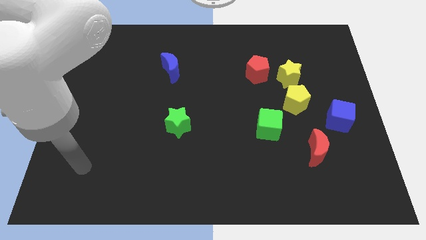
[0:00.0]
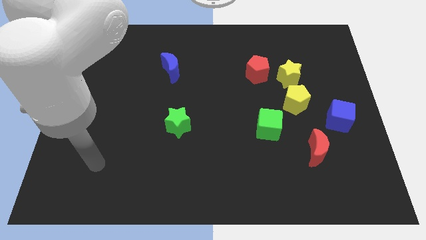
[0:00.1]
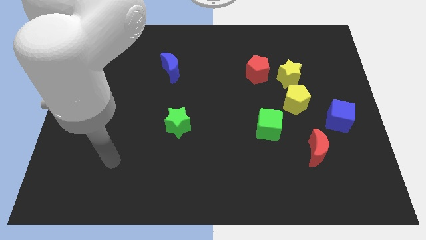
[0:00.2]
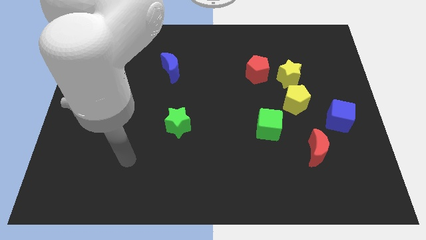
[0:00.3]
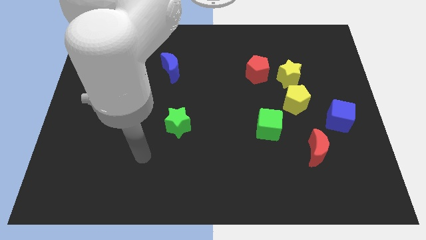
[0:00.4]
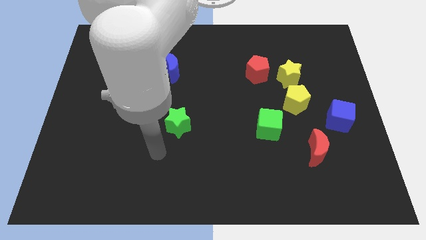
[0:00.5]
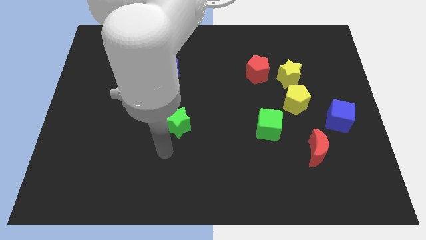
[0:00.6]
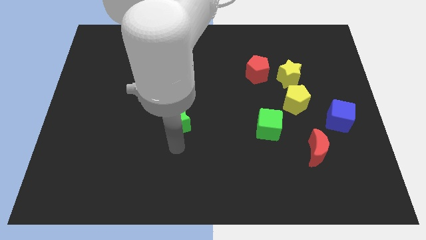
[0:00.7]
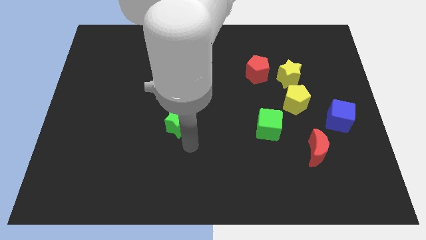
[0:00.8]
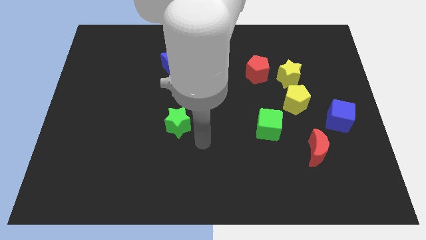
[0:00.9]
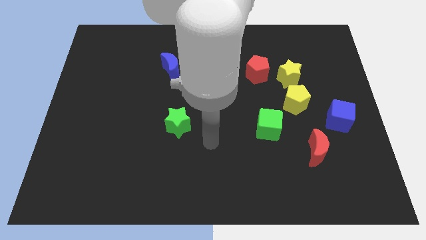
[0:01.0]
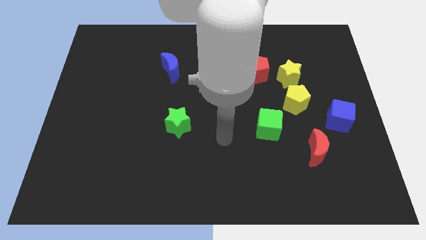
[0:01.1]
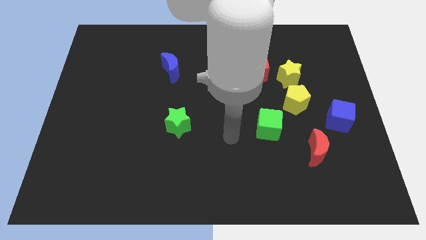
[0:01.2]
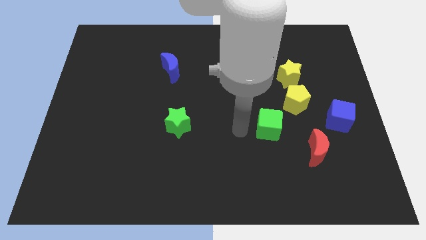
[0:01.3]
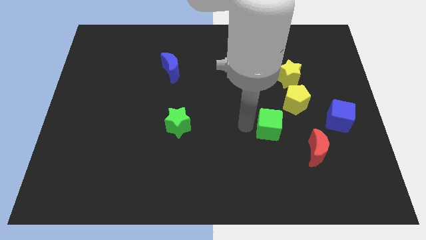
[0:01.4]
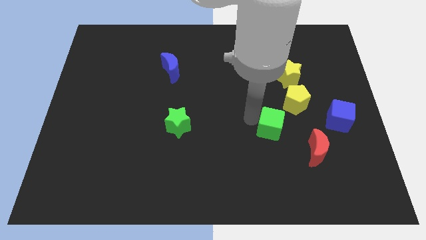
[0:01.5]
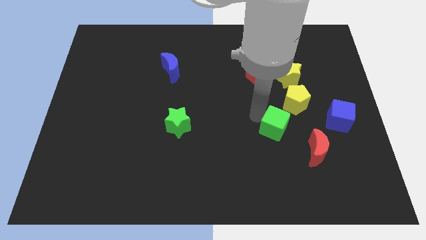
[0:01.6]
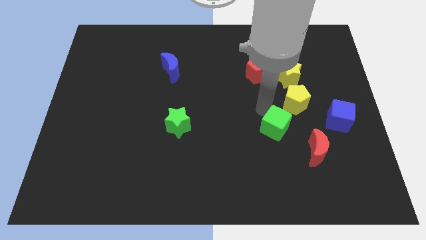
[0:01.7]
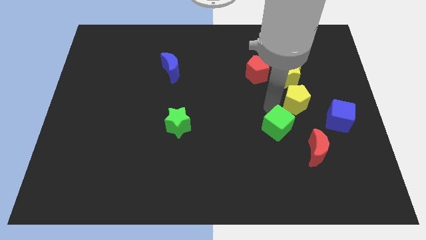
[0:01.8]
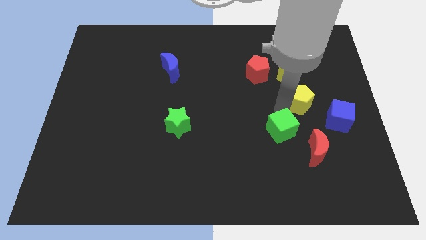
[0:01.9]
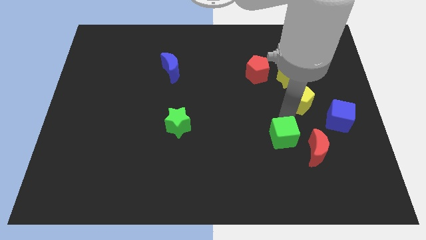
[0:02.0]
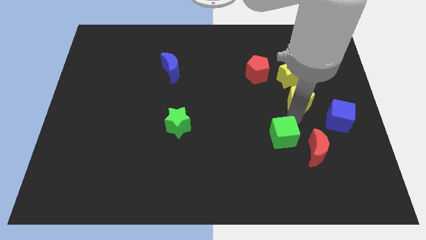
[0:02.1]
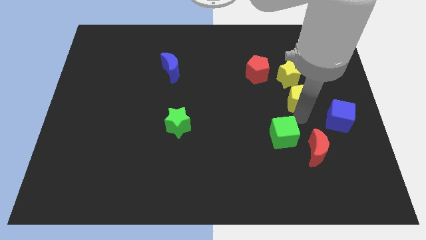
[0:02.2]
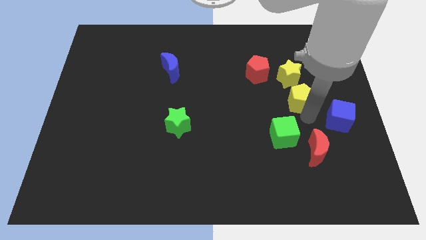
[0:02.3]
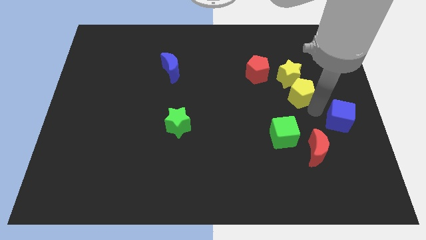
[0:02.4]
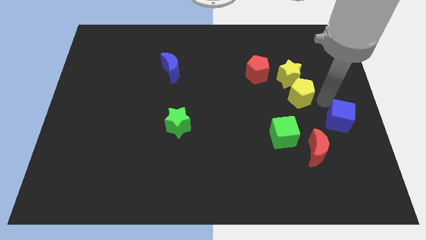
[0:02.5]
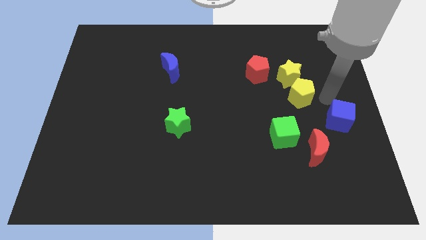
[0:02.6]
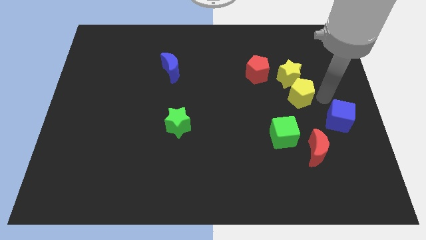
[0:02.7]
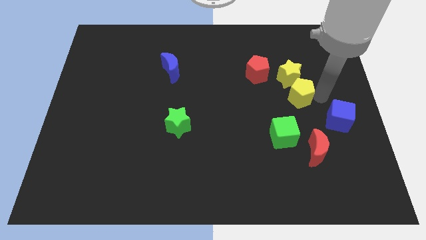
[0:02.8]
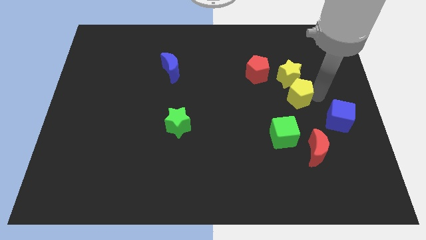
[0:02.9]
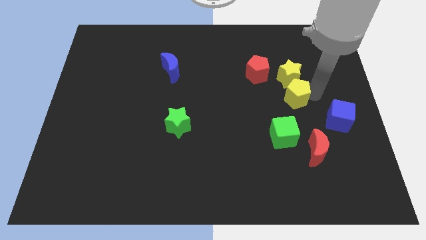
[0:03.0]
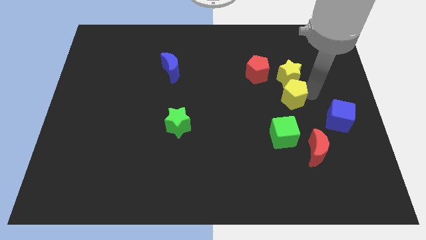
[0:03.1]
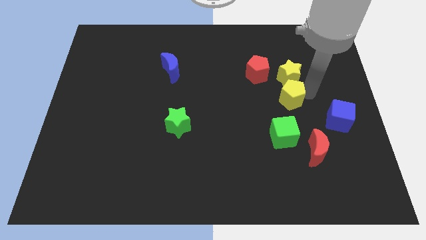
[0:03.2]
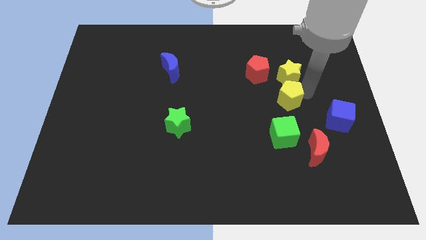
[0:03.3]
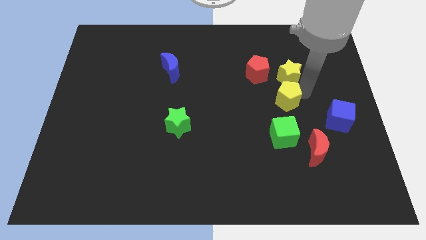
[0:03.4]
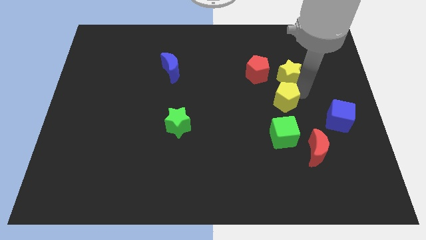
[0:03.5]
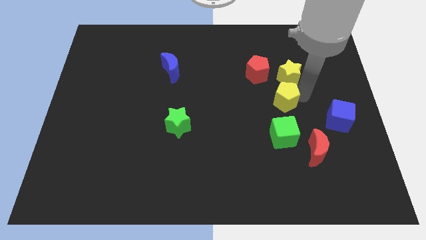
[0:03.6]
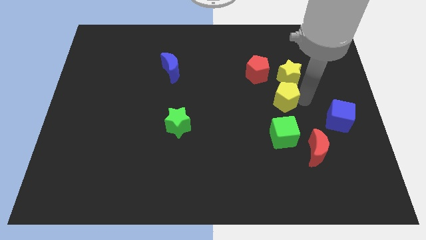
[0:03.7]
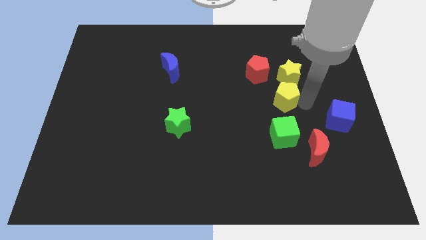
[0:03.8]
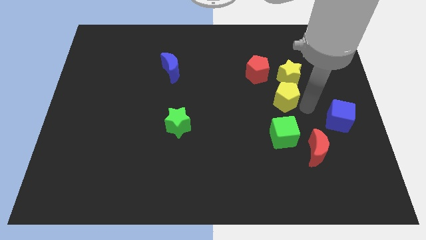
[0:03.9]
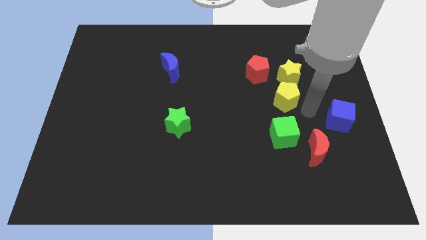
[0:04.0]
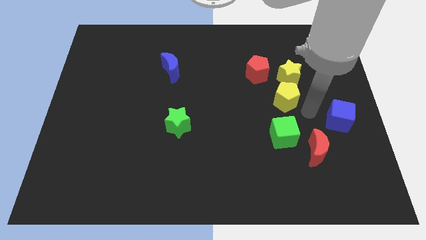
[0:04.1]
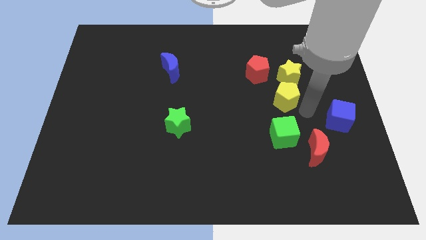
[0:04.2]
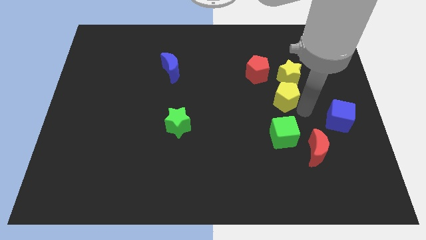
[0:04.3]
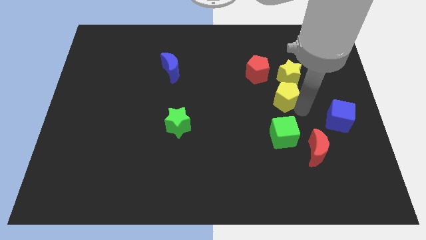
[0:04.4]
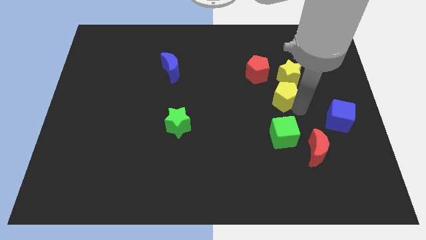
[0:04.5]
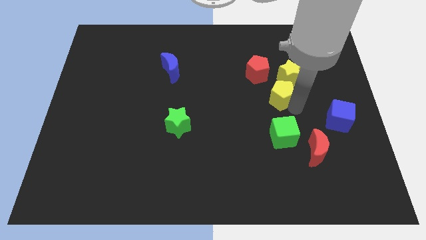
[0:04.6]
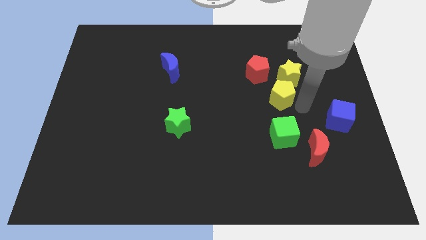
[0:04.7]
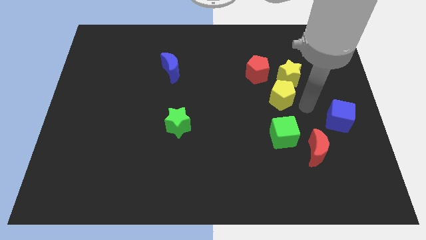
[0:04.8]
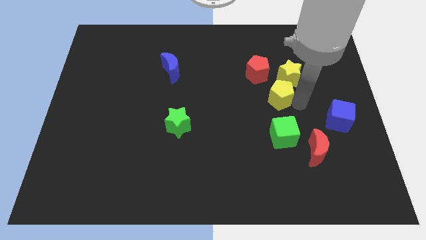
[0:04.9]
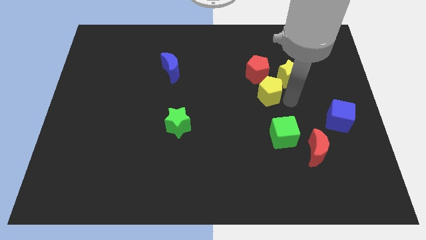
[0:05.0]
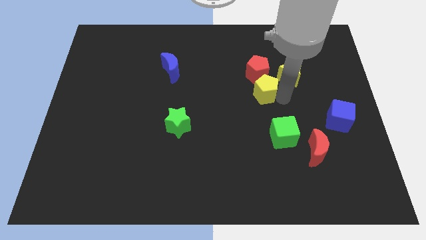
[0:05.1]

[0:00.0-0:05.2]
move the yellow pentagon diagonally upwards and to the left somewhat

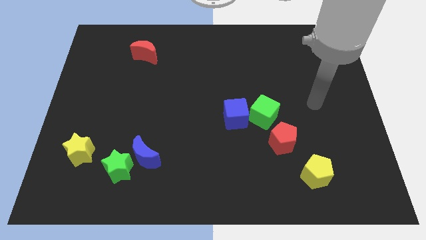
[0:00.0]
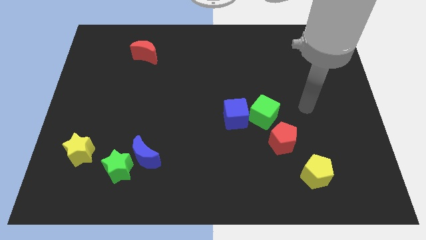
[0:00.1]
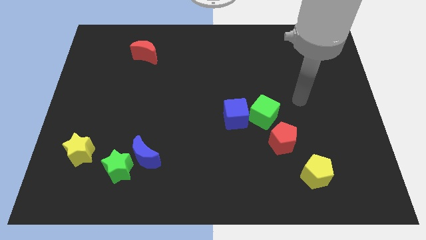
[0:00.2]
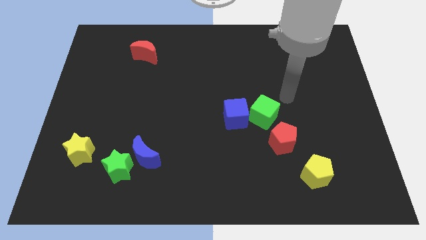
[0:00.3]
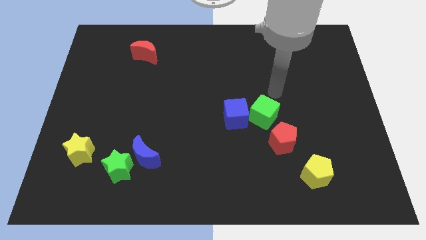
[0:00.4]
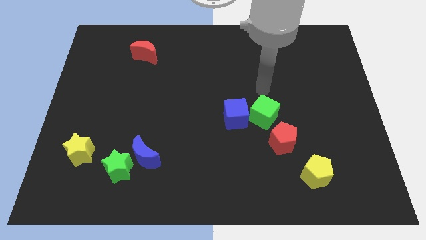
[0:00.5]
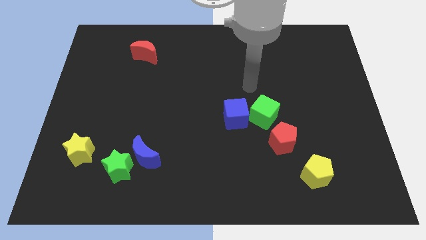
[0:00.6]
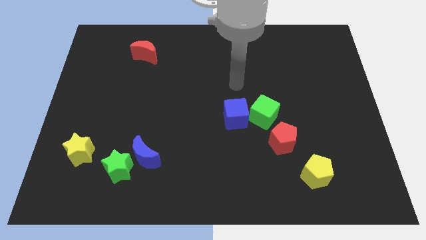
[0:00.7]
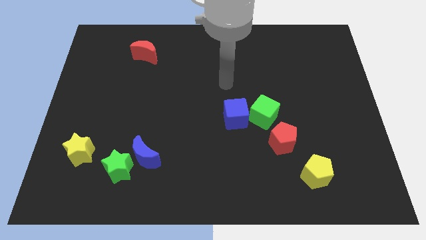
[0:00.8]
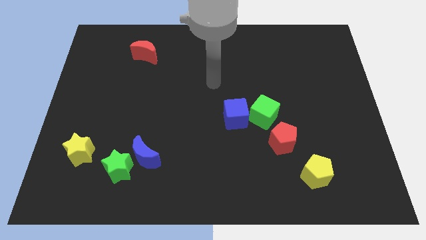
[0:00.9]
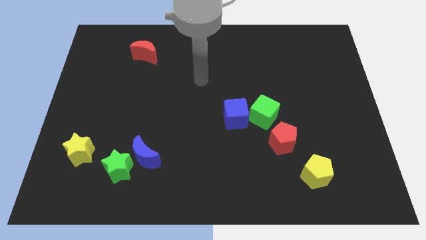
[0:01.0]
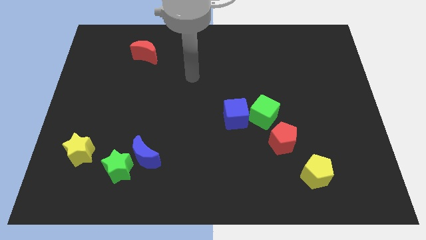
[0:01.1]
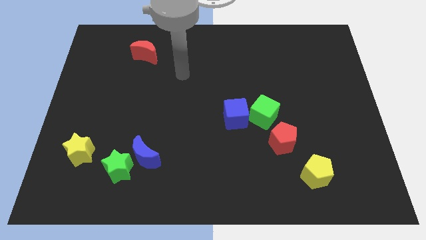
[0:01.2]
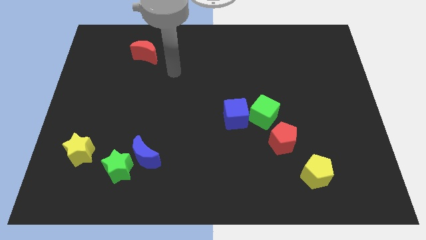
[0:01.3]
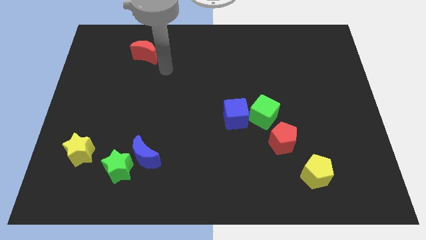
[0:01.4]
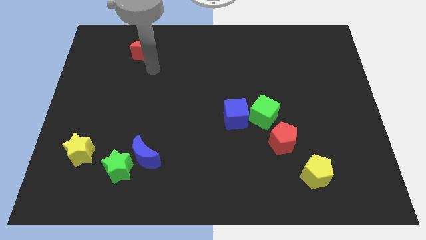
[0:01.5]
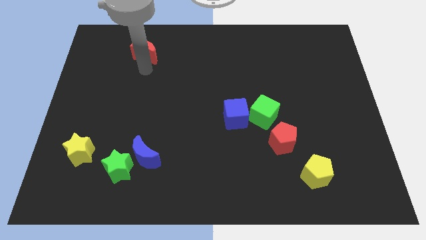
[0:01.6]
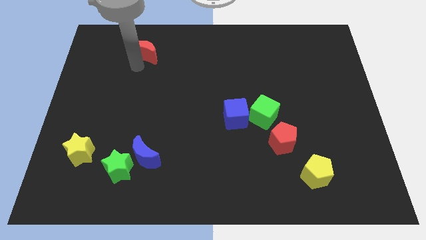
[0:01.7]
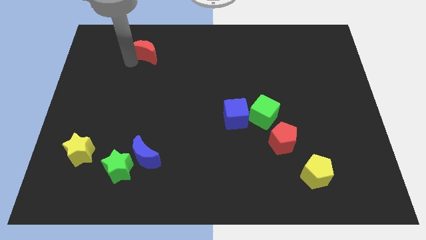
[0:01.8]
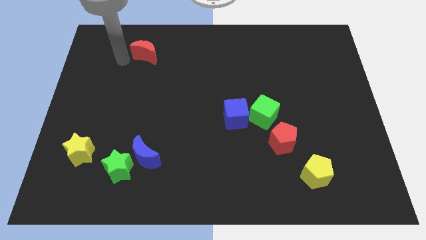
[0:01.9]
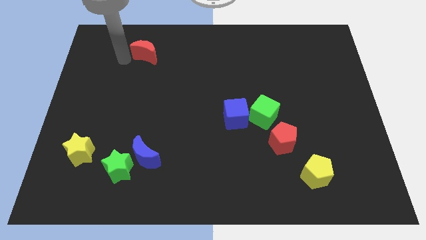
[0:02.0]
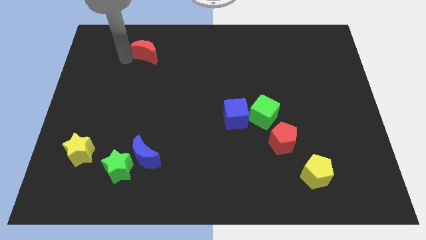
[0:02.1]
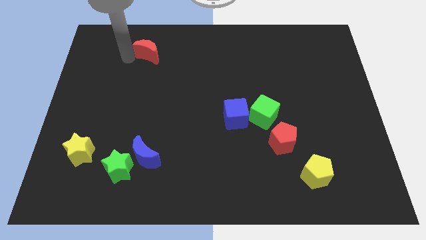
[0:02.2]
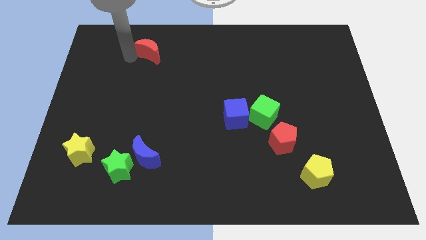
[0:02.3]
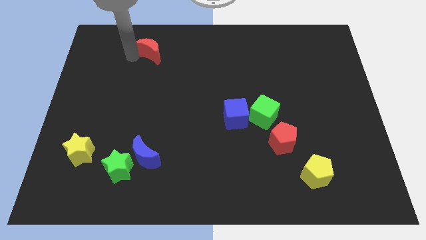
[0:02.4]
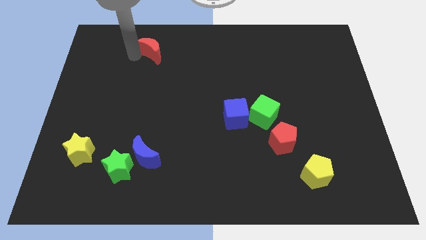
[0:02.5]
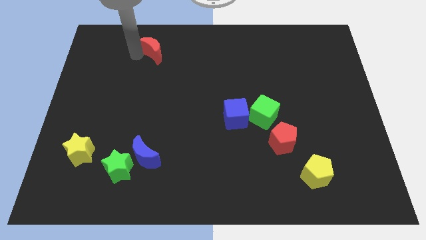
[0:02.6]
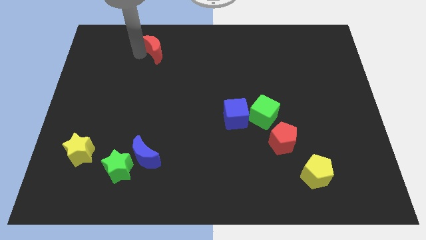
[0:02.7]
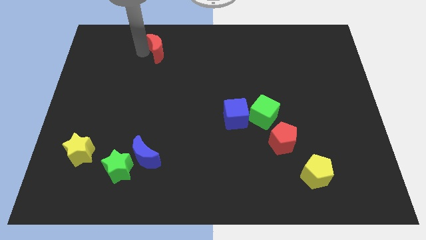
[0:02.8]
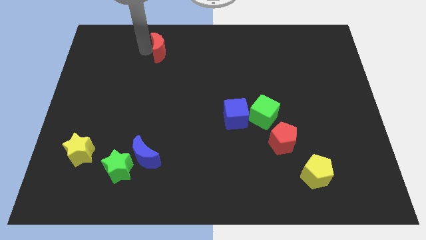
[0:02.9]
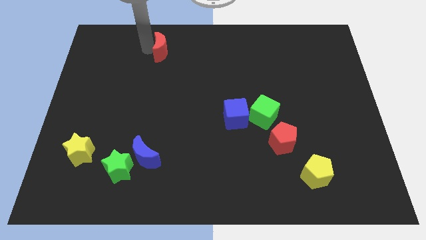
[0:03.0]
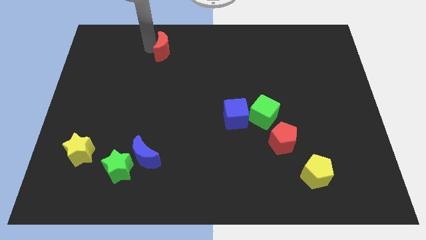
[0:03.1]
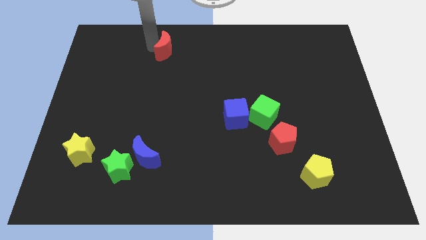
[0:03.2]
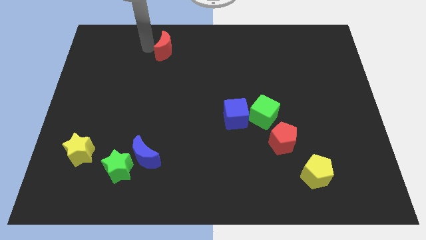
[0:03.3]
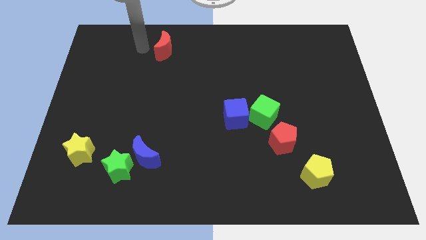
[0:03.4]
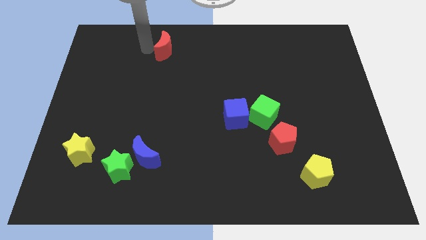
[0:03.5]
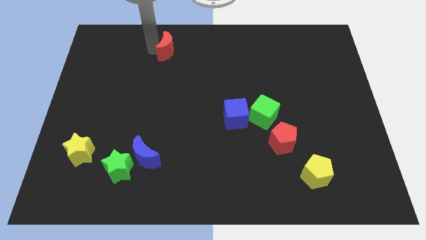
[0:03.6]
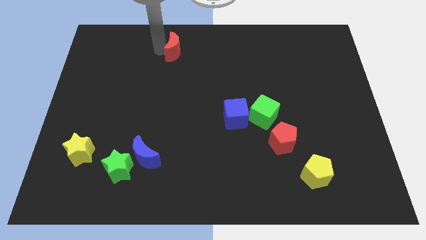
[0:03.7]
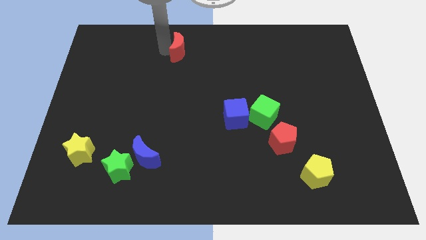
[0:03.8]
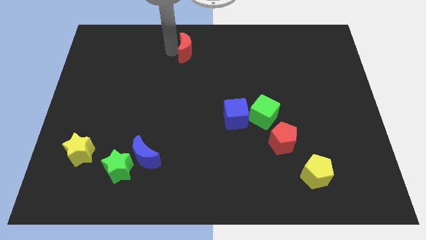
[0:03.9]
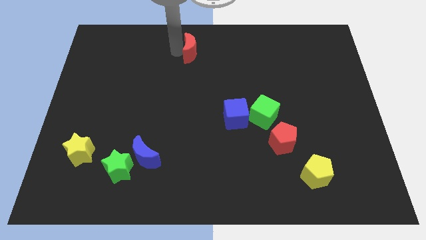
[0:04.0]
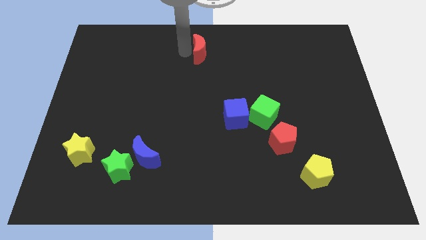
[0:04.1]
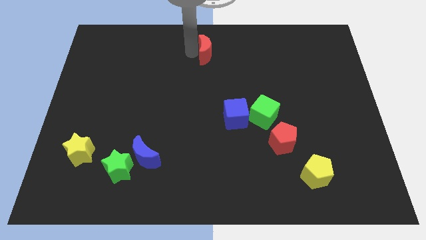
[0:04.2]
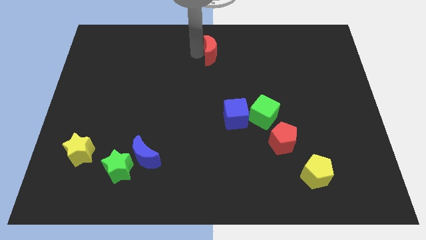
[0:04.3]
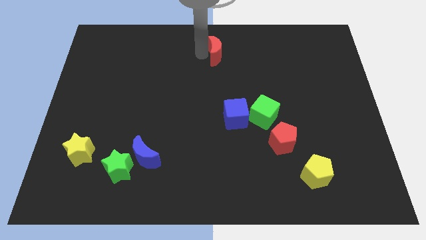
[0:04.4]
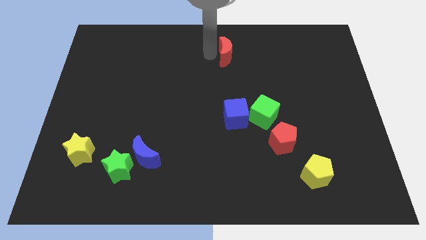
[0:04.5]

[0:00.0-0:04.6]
push the red moon right
